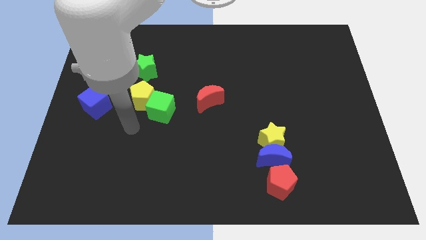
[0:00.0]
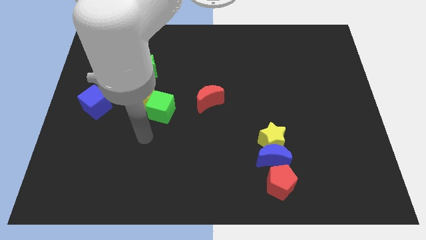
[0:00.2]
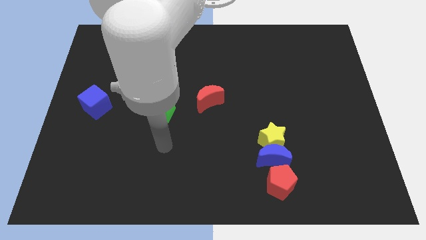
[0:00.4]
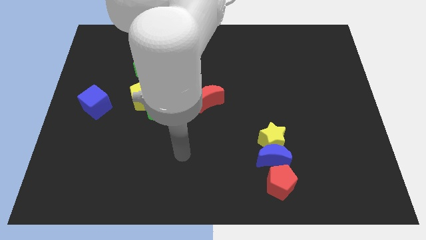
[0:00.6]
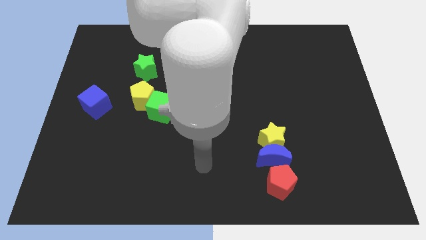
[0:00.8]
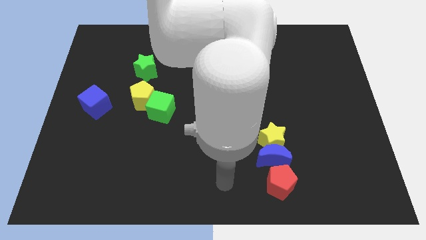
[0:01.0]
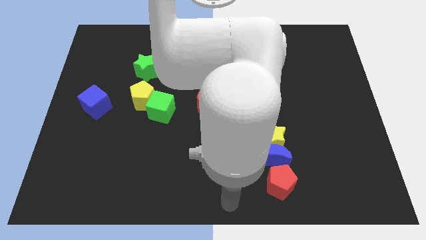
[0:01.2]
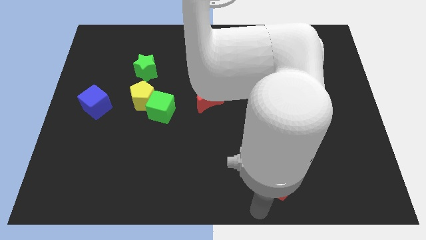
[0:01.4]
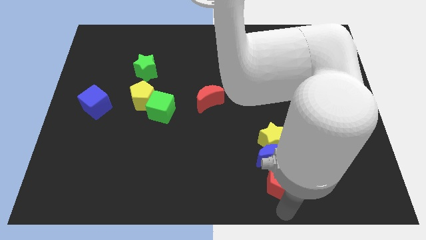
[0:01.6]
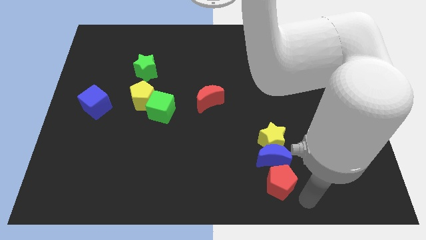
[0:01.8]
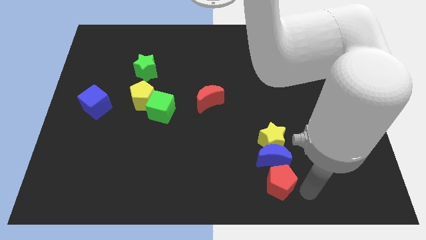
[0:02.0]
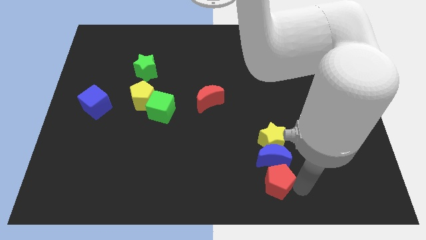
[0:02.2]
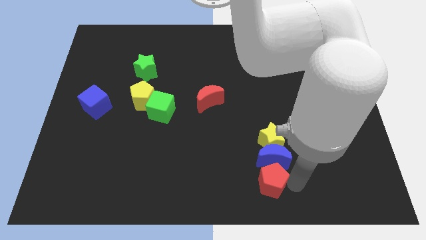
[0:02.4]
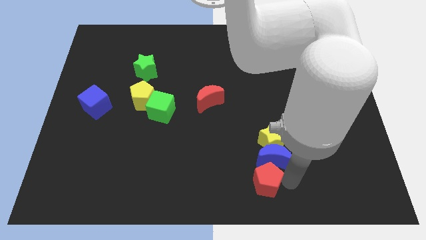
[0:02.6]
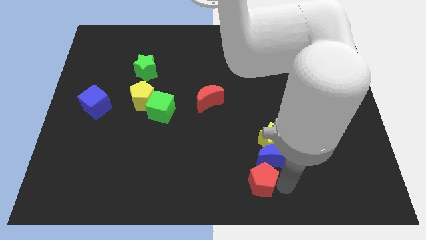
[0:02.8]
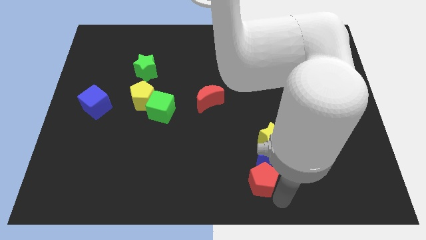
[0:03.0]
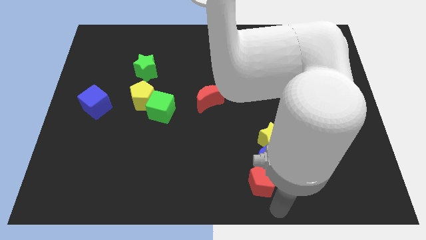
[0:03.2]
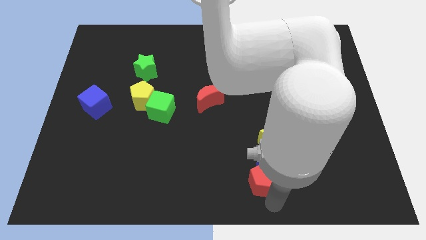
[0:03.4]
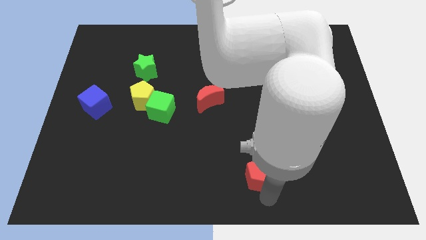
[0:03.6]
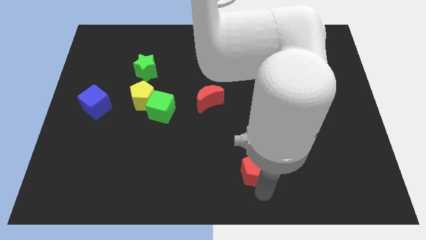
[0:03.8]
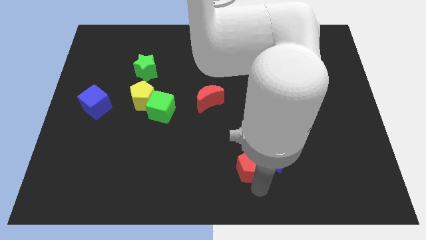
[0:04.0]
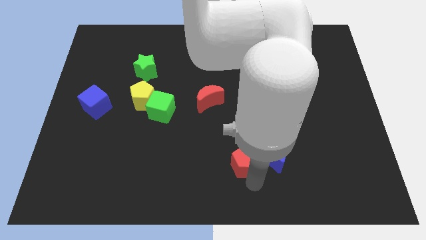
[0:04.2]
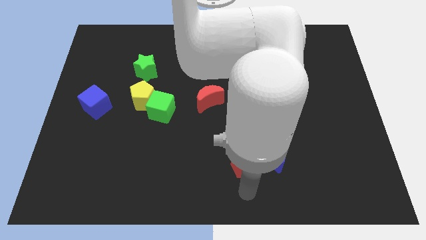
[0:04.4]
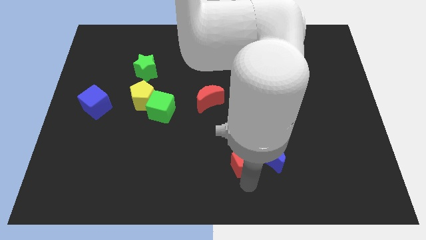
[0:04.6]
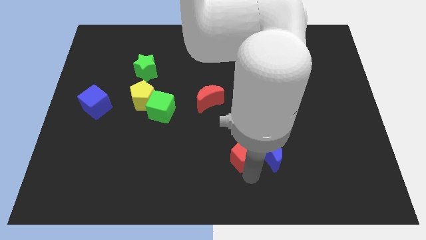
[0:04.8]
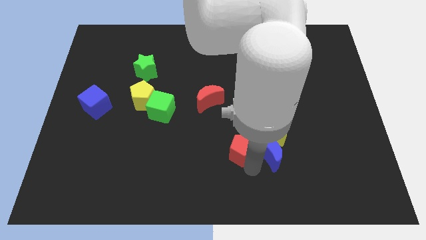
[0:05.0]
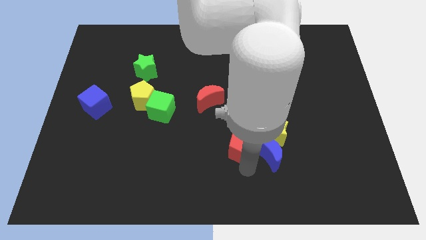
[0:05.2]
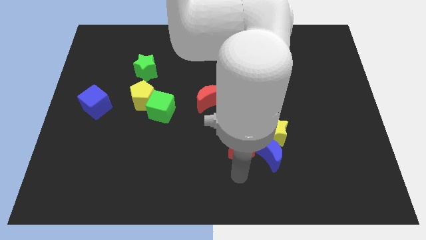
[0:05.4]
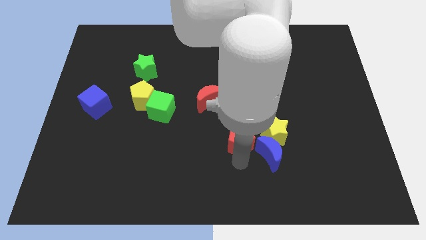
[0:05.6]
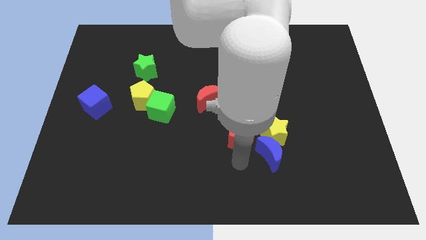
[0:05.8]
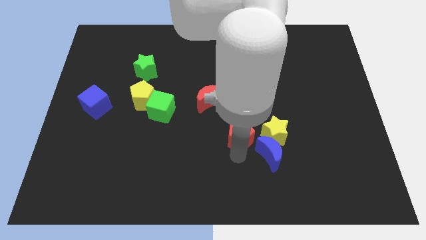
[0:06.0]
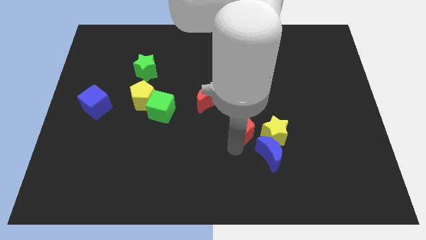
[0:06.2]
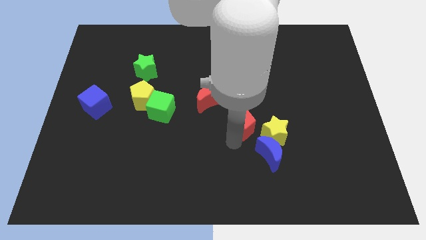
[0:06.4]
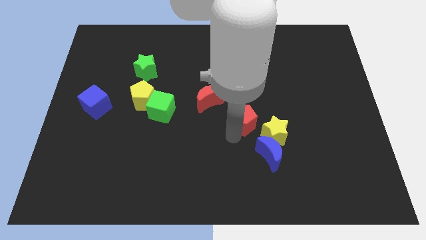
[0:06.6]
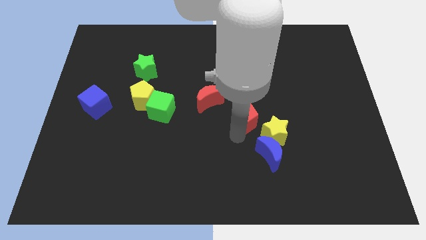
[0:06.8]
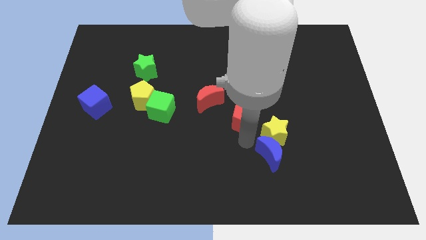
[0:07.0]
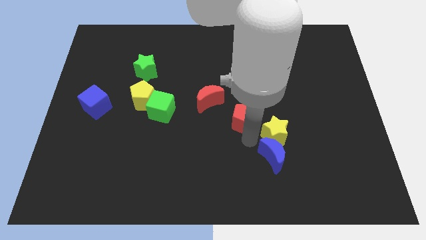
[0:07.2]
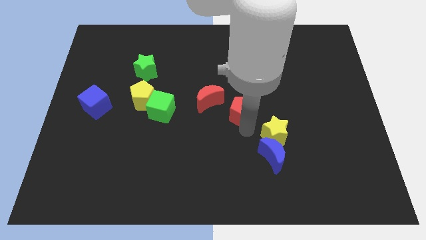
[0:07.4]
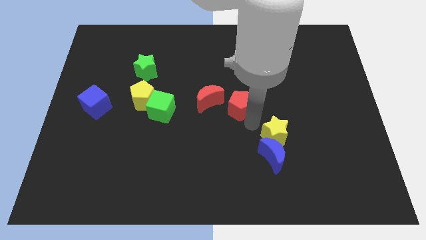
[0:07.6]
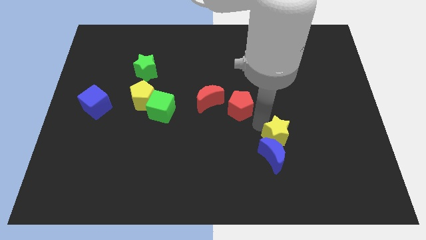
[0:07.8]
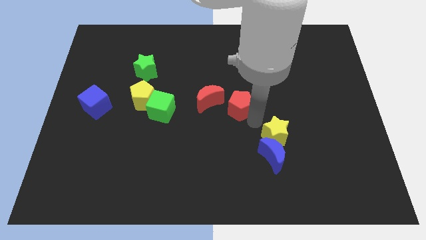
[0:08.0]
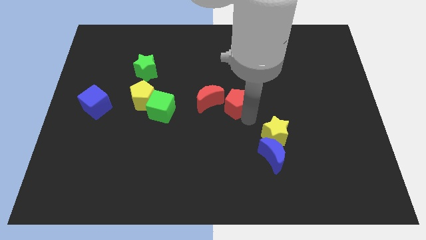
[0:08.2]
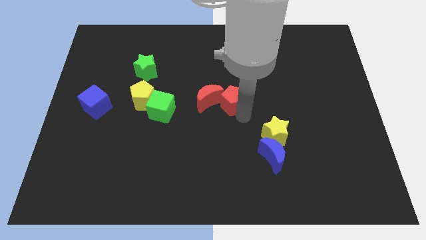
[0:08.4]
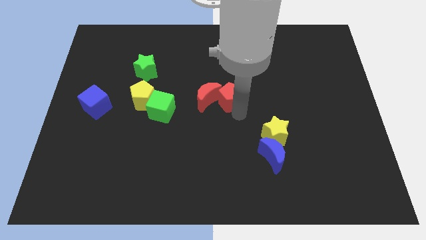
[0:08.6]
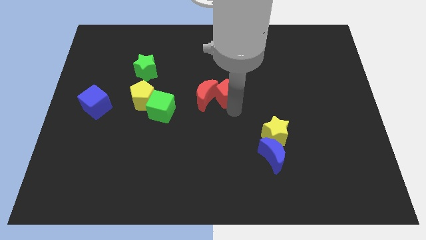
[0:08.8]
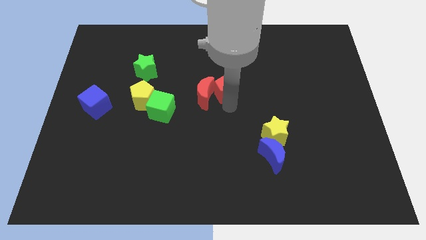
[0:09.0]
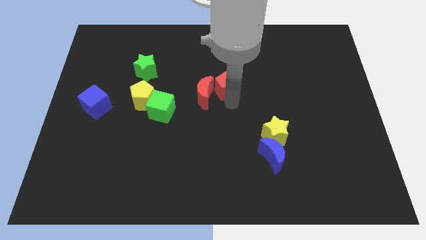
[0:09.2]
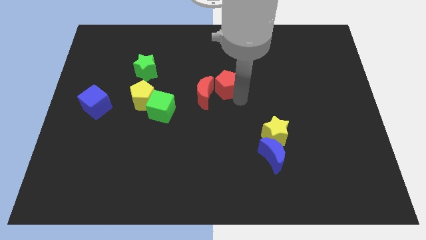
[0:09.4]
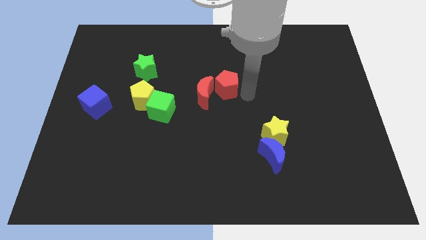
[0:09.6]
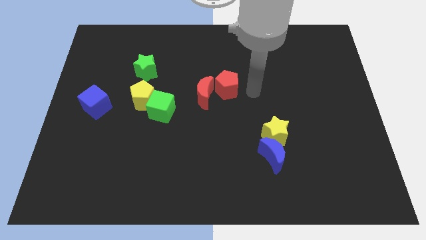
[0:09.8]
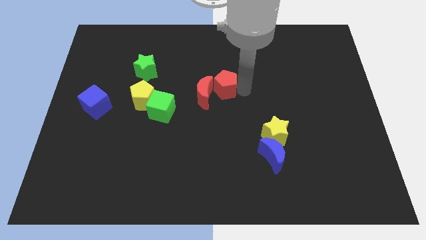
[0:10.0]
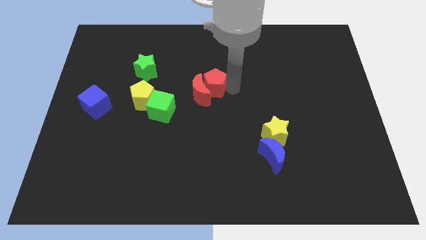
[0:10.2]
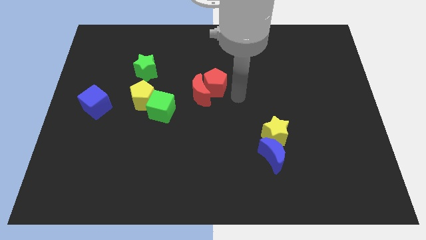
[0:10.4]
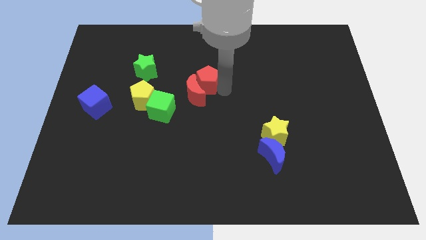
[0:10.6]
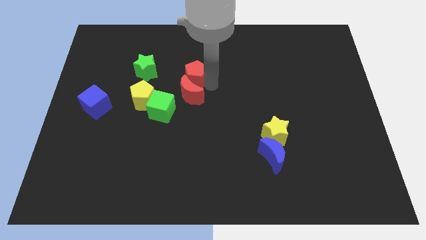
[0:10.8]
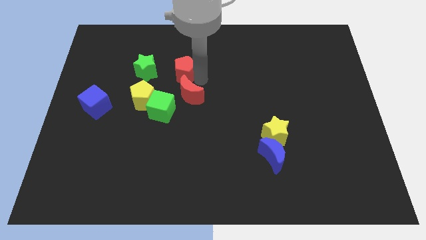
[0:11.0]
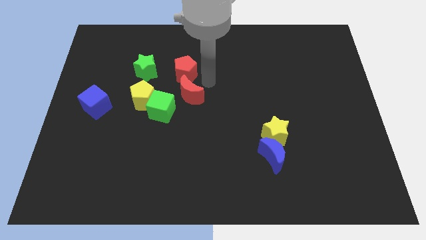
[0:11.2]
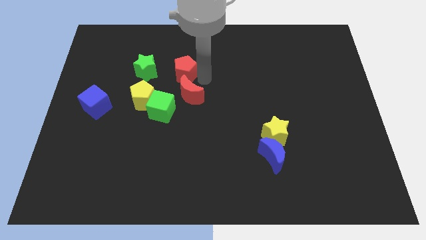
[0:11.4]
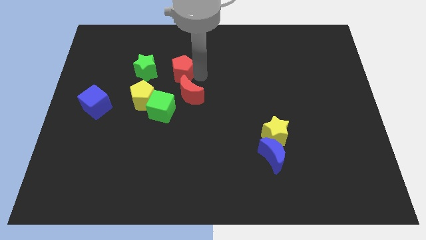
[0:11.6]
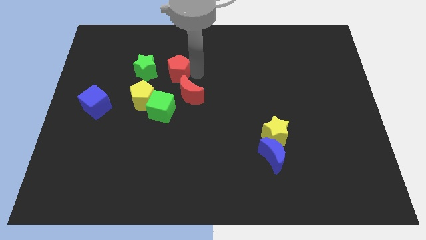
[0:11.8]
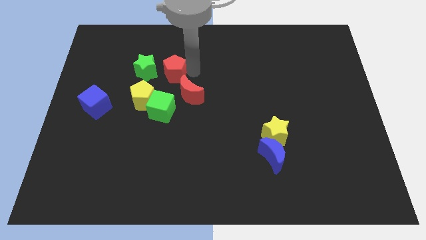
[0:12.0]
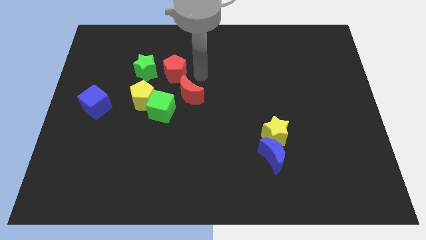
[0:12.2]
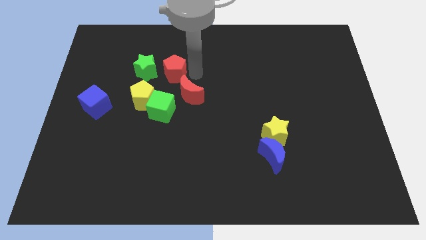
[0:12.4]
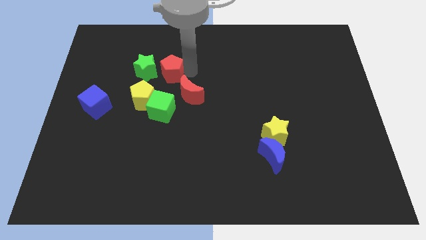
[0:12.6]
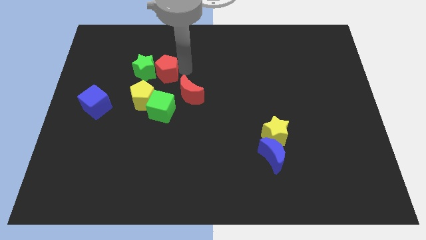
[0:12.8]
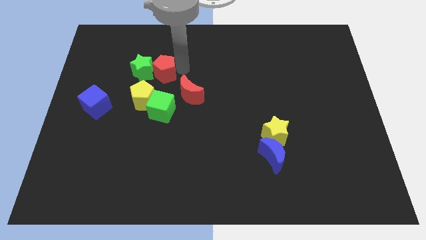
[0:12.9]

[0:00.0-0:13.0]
push the red pentagon above the yellow pentagon

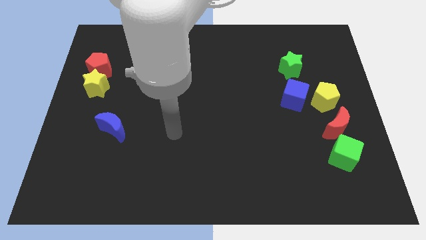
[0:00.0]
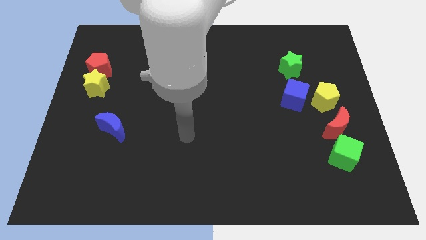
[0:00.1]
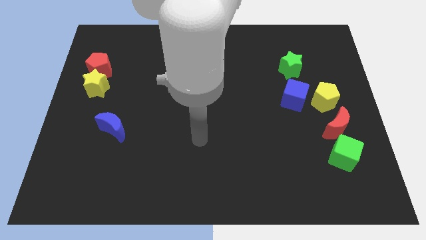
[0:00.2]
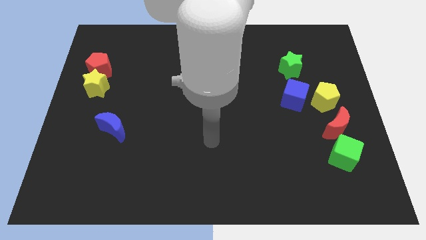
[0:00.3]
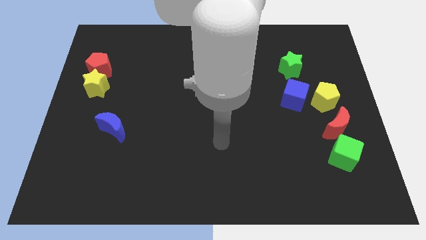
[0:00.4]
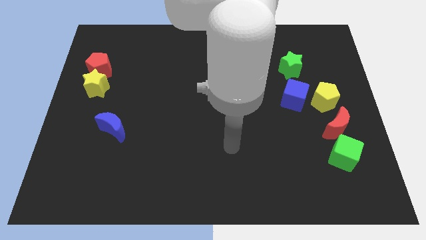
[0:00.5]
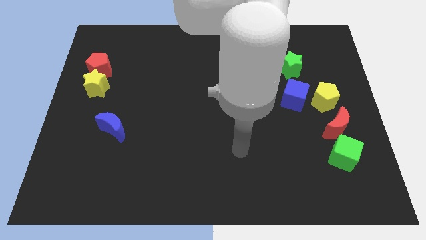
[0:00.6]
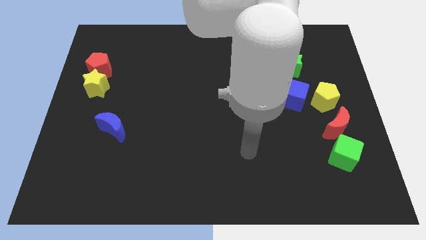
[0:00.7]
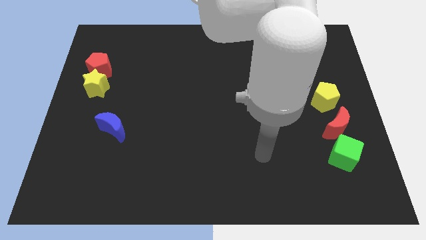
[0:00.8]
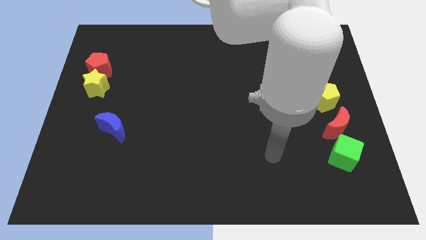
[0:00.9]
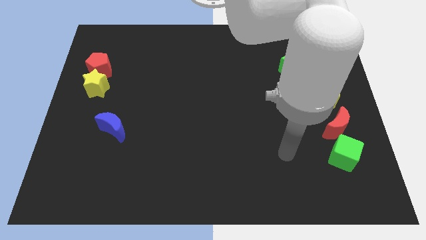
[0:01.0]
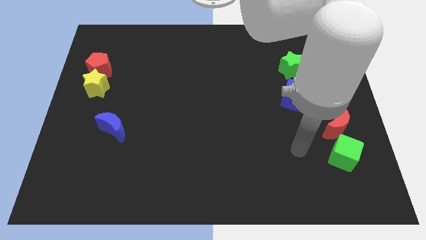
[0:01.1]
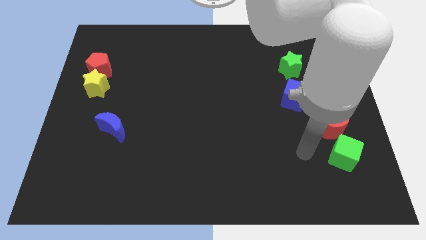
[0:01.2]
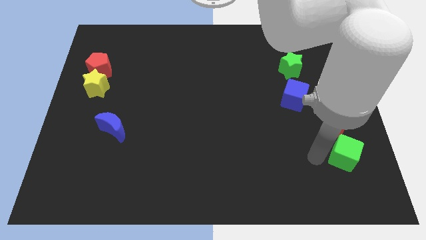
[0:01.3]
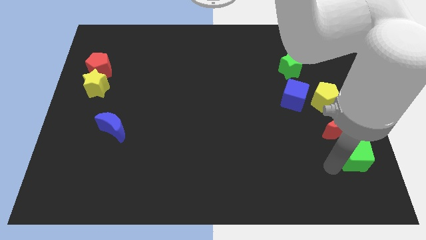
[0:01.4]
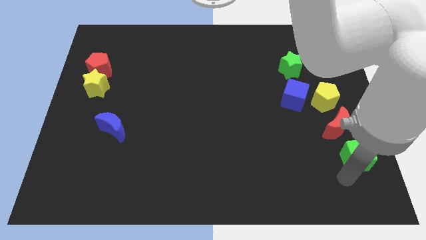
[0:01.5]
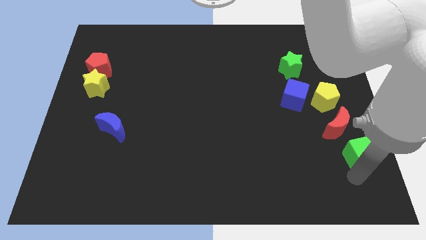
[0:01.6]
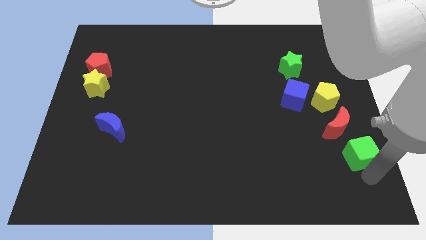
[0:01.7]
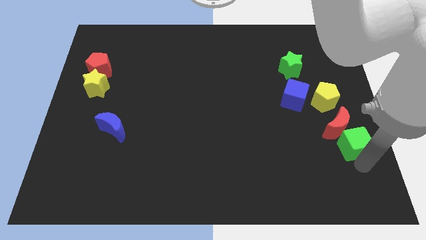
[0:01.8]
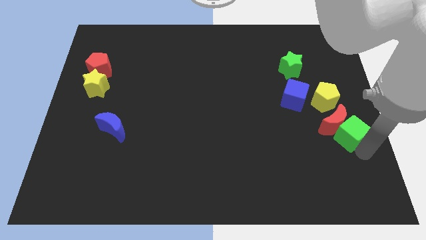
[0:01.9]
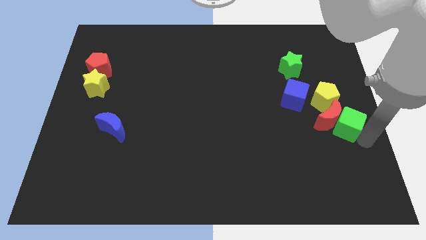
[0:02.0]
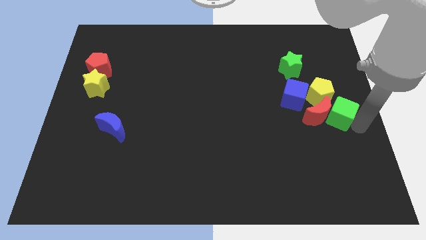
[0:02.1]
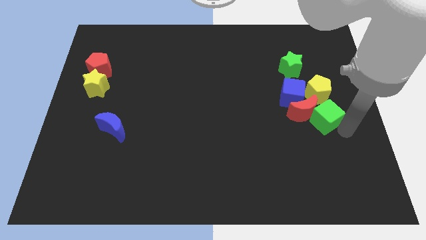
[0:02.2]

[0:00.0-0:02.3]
push the red moon to the bottom side of the green star
